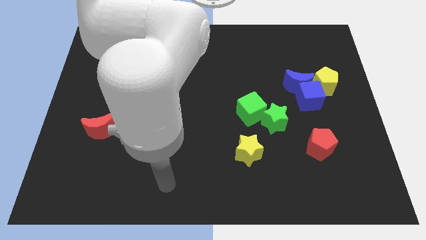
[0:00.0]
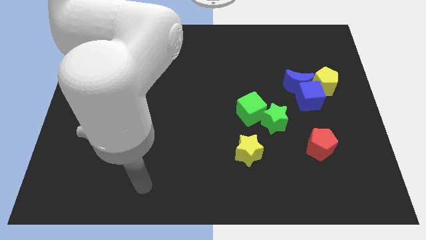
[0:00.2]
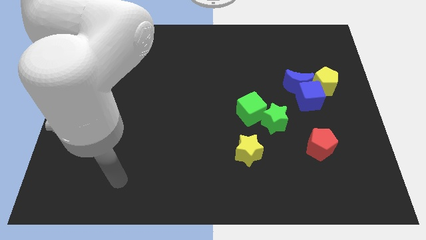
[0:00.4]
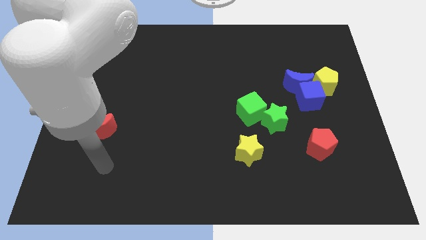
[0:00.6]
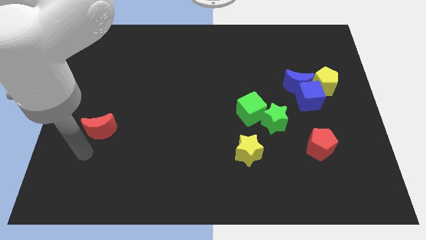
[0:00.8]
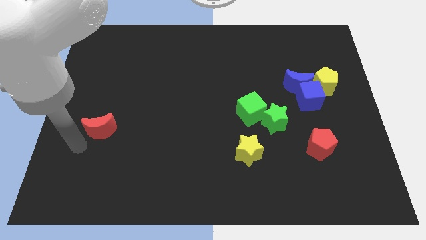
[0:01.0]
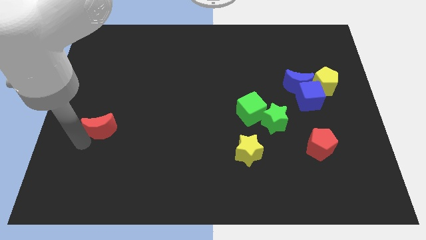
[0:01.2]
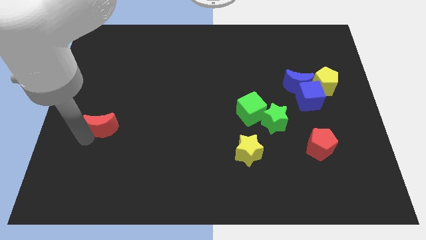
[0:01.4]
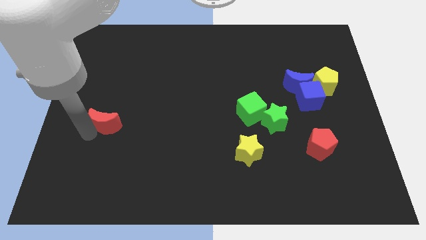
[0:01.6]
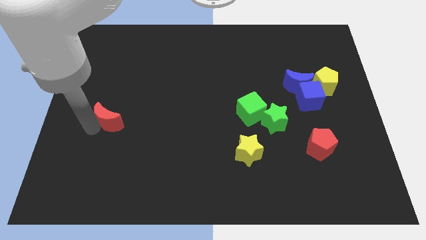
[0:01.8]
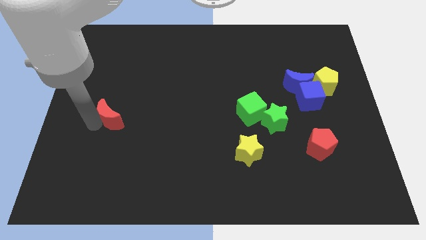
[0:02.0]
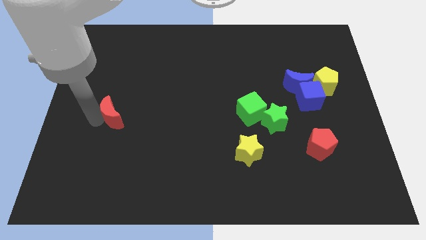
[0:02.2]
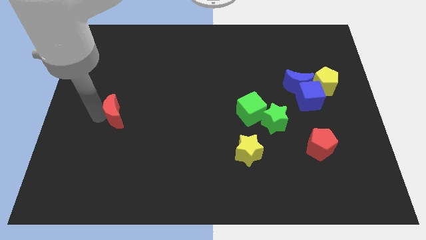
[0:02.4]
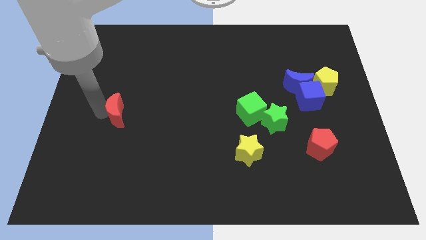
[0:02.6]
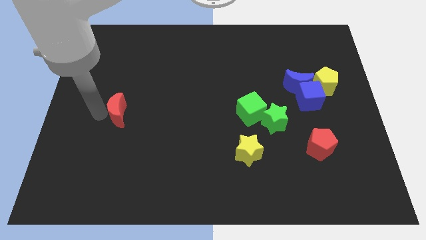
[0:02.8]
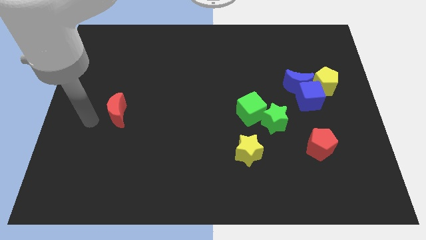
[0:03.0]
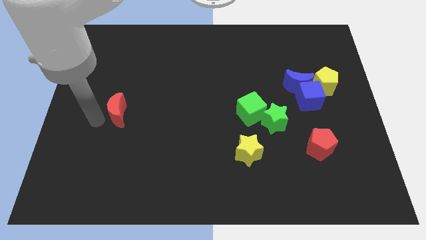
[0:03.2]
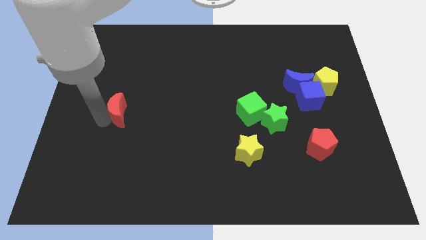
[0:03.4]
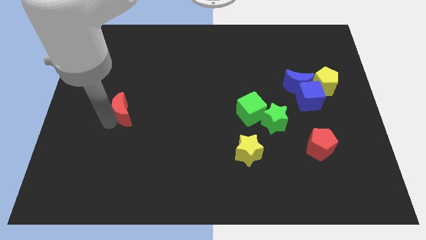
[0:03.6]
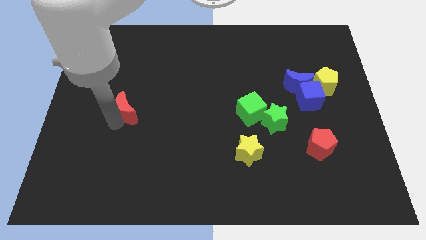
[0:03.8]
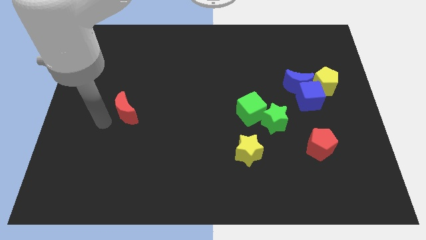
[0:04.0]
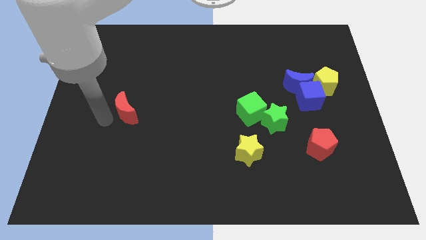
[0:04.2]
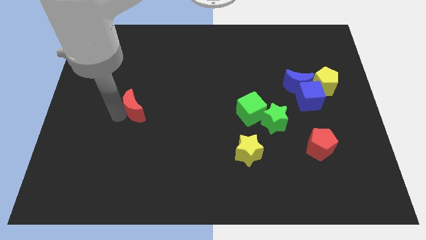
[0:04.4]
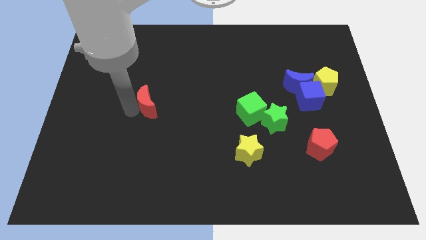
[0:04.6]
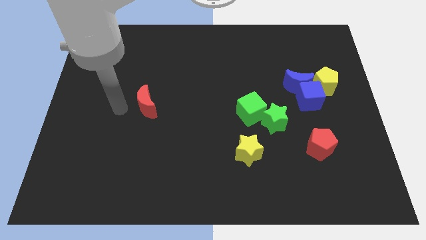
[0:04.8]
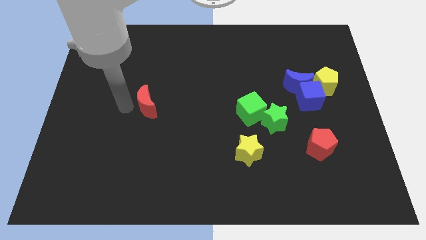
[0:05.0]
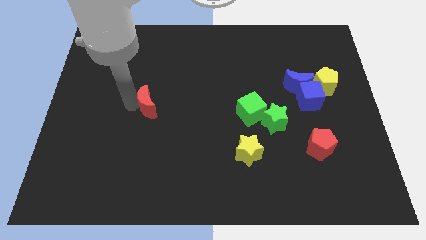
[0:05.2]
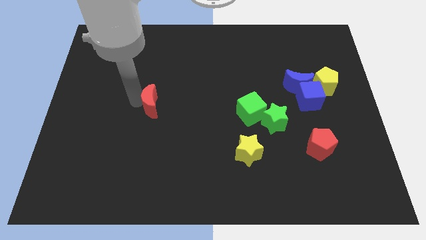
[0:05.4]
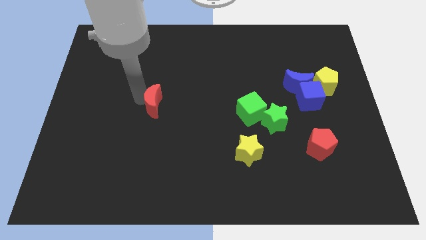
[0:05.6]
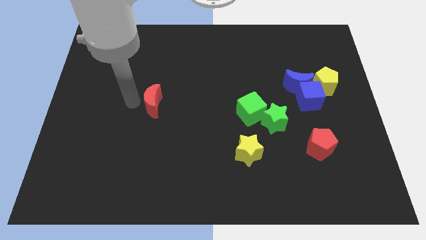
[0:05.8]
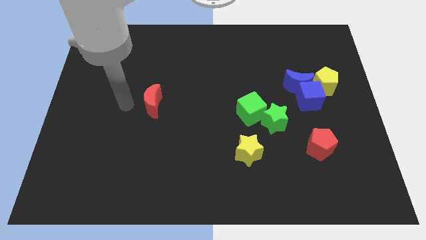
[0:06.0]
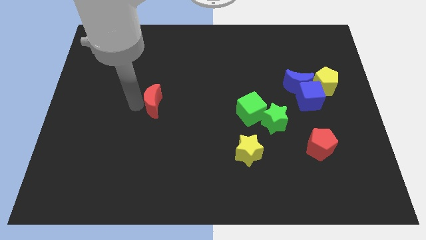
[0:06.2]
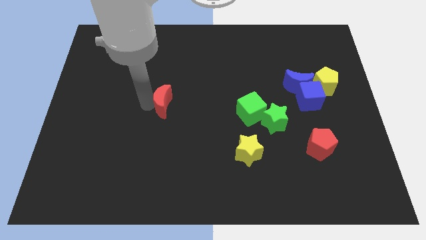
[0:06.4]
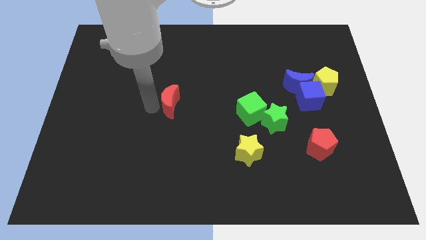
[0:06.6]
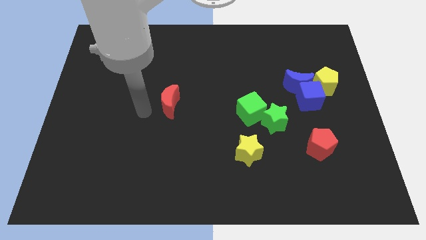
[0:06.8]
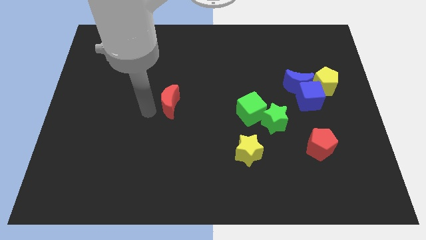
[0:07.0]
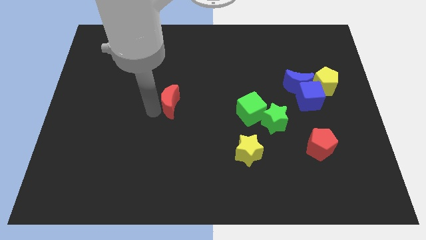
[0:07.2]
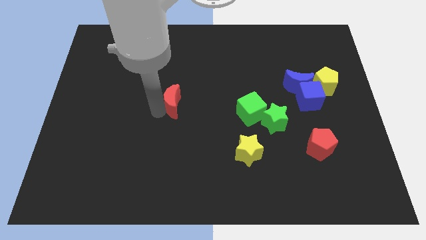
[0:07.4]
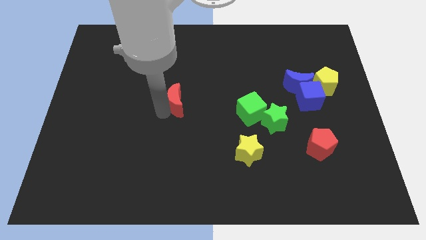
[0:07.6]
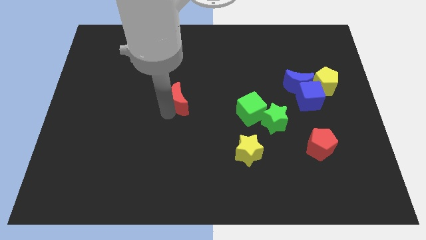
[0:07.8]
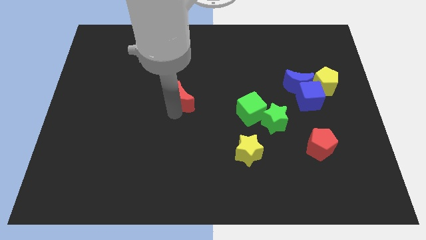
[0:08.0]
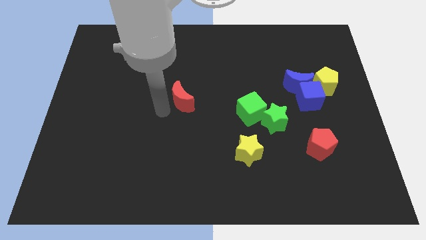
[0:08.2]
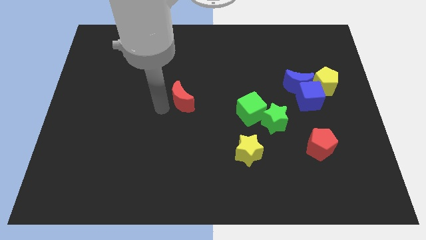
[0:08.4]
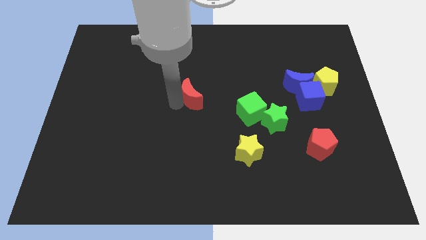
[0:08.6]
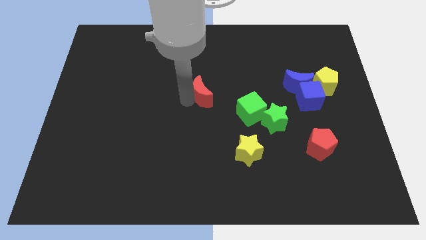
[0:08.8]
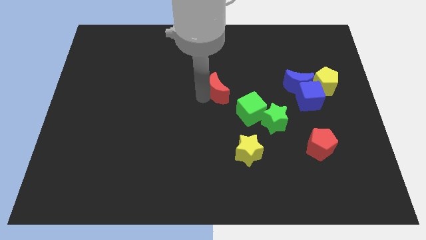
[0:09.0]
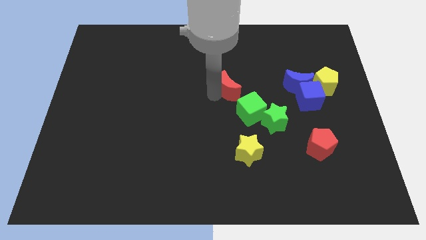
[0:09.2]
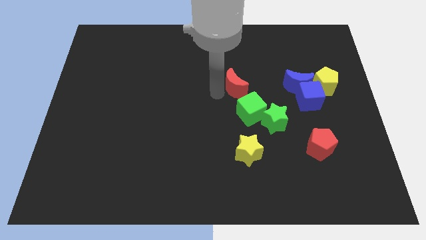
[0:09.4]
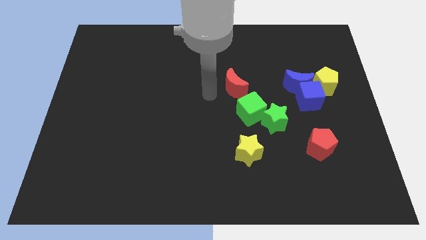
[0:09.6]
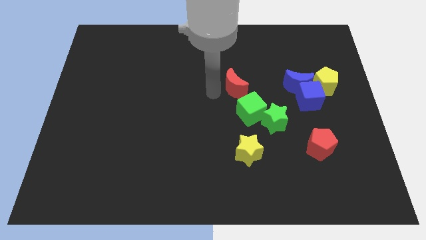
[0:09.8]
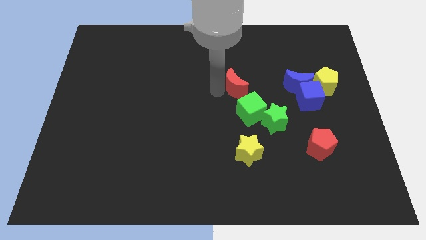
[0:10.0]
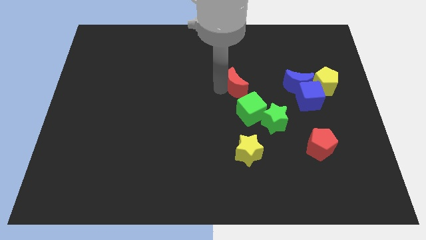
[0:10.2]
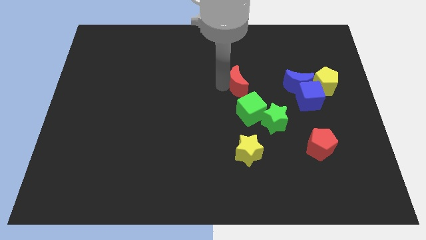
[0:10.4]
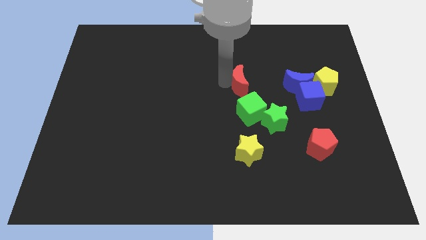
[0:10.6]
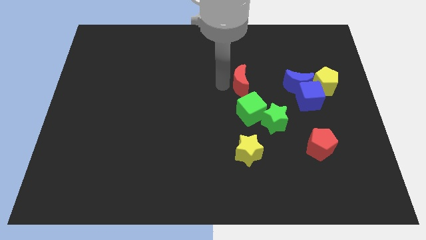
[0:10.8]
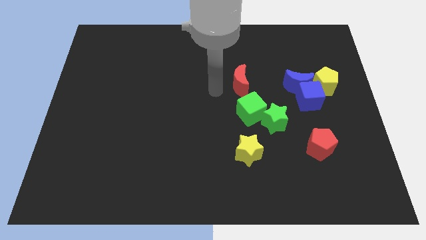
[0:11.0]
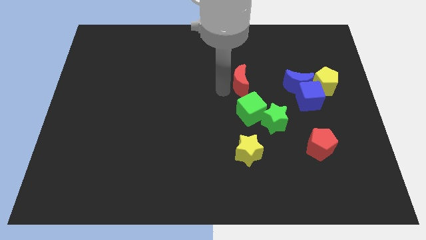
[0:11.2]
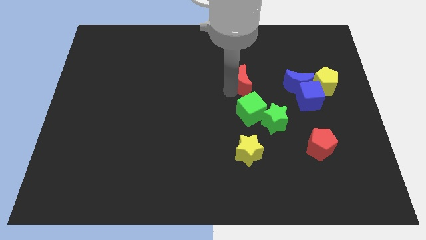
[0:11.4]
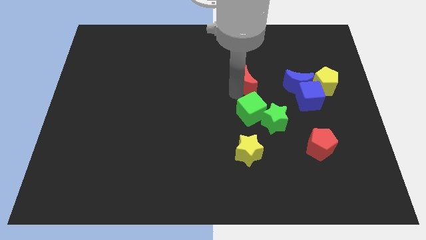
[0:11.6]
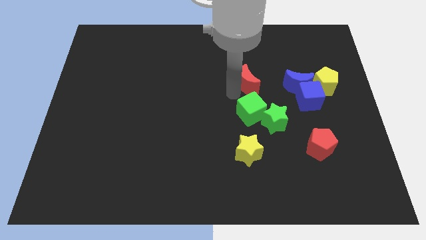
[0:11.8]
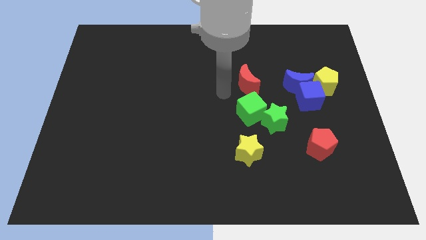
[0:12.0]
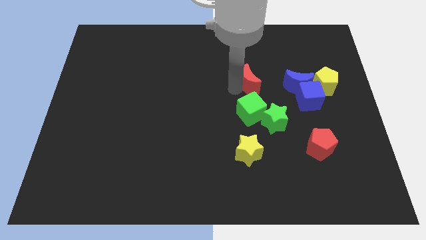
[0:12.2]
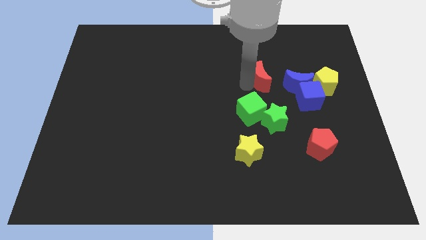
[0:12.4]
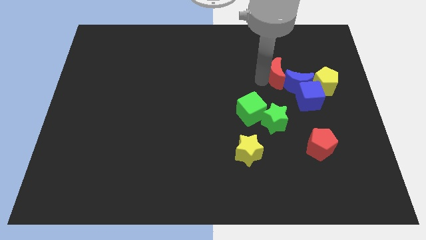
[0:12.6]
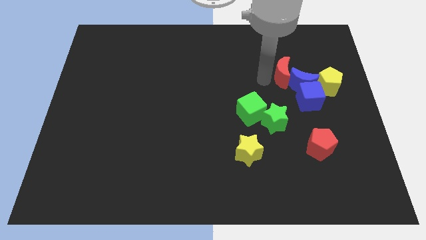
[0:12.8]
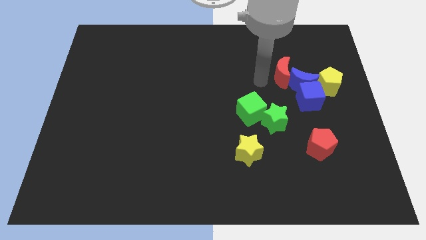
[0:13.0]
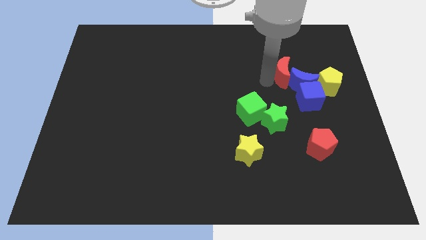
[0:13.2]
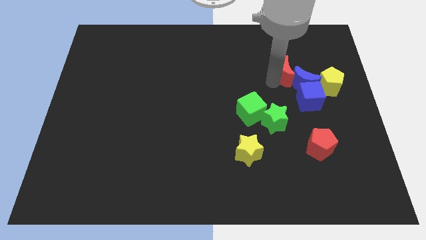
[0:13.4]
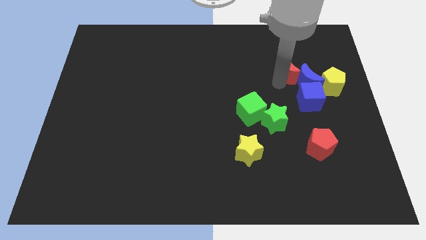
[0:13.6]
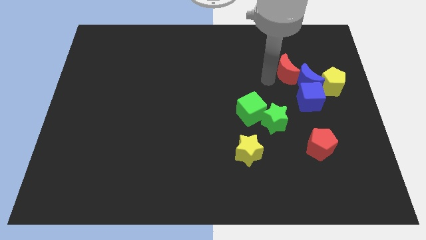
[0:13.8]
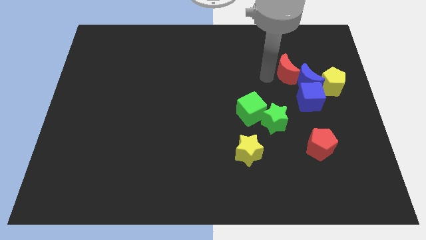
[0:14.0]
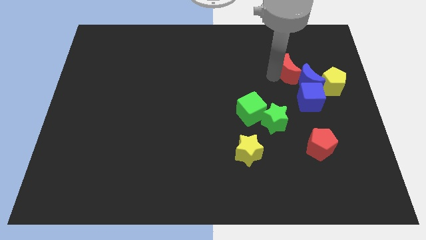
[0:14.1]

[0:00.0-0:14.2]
slide the red moon to the top left of the yellow pentagon

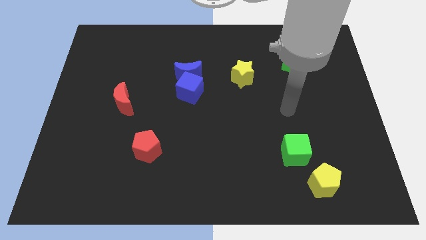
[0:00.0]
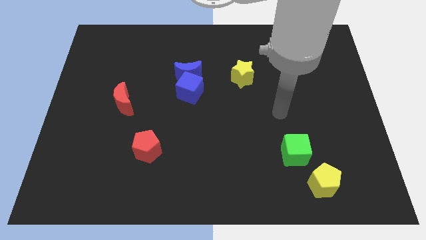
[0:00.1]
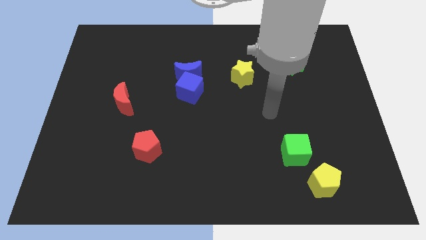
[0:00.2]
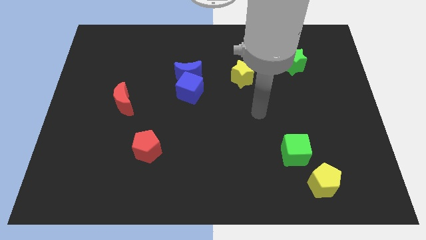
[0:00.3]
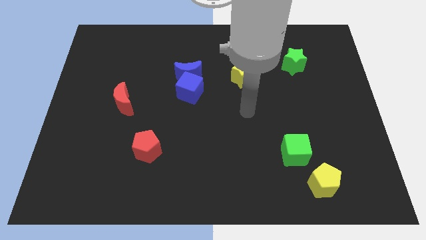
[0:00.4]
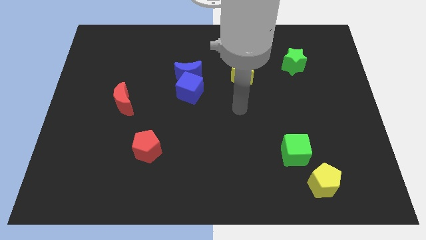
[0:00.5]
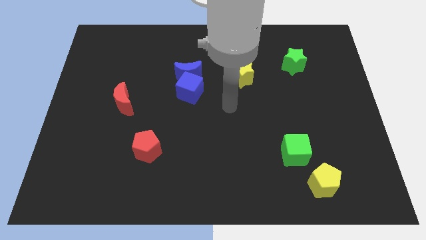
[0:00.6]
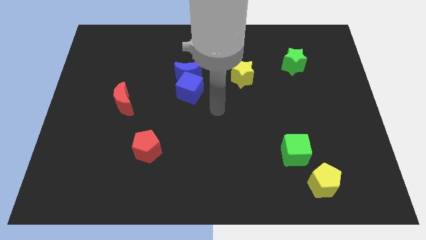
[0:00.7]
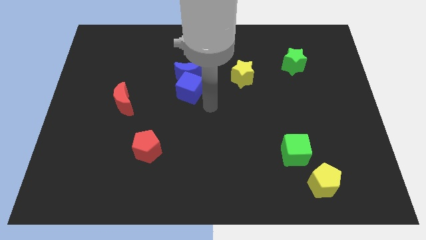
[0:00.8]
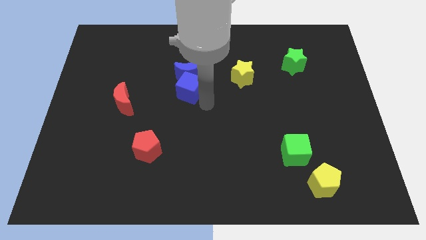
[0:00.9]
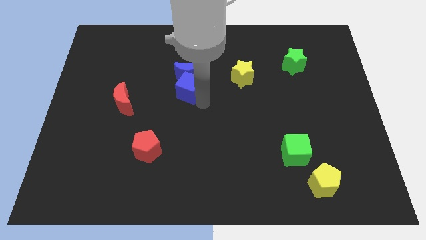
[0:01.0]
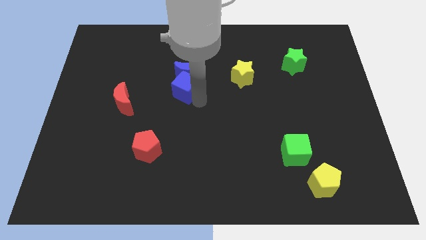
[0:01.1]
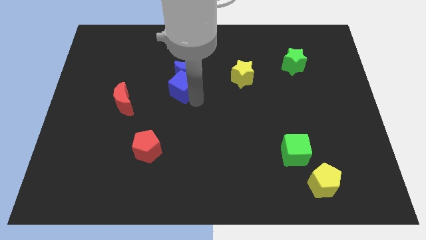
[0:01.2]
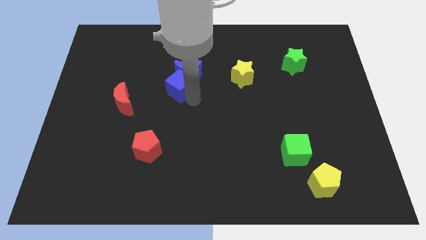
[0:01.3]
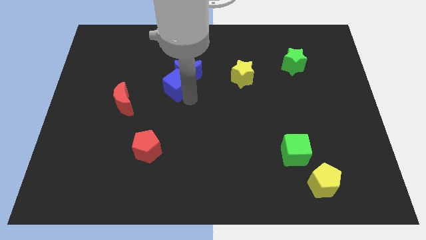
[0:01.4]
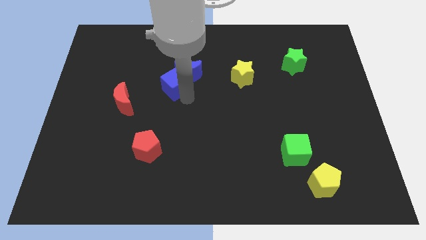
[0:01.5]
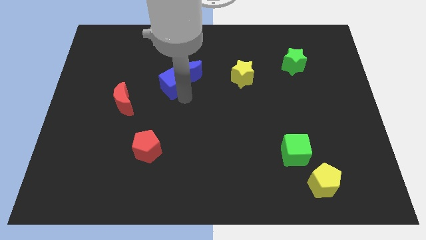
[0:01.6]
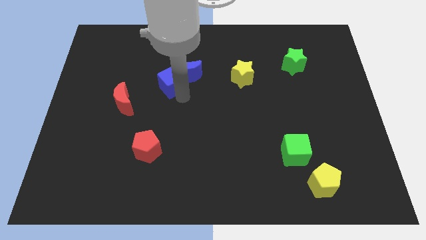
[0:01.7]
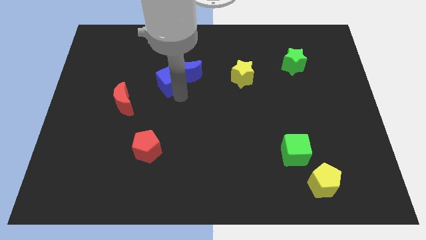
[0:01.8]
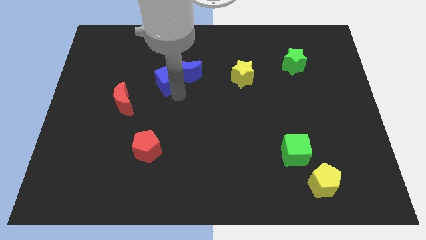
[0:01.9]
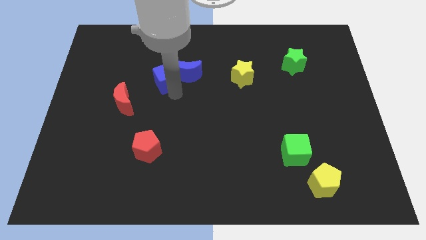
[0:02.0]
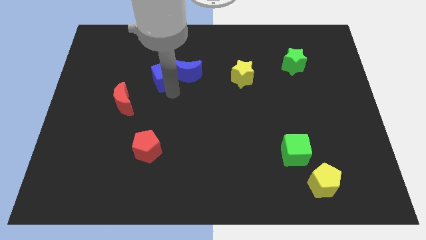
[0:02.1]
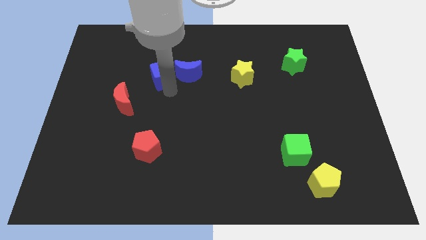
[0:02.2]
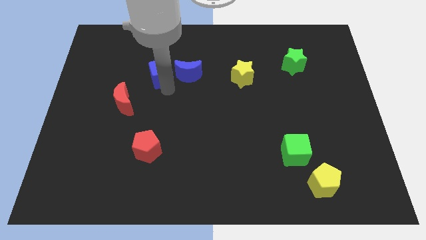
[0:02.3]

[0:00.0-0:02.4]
push the blue cube to the top left of the blue moon
